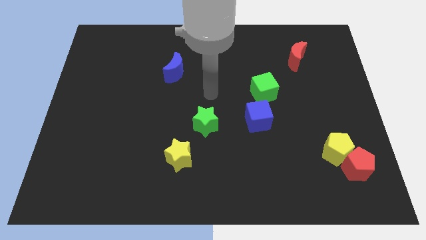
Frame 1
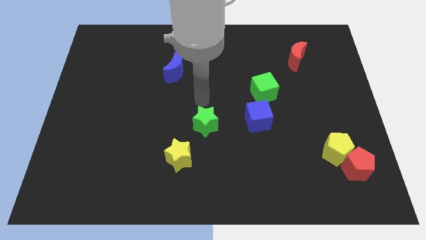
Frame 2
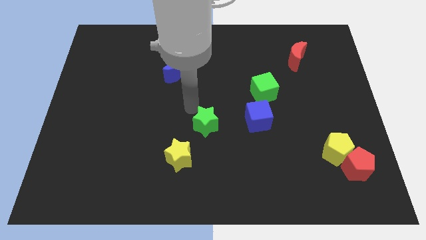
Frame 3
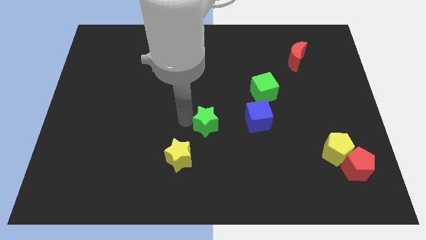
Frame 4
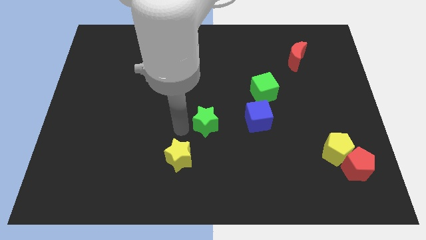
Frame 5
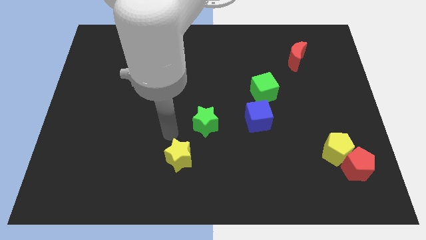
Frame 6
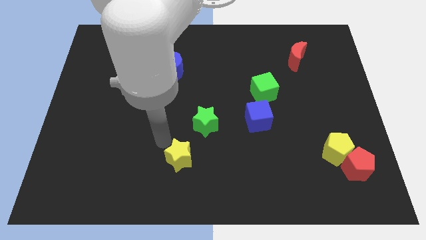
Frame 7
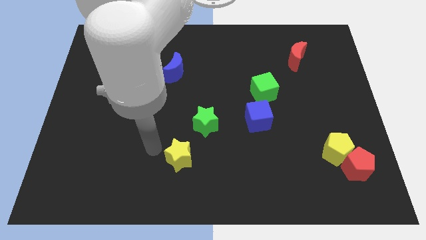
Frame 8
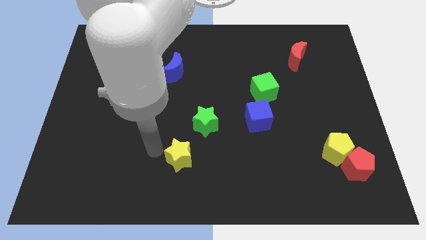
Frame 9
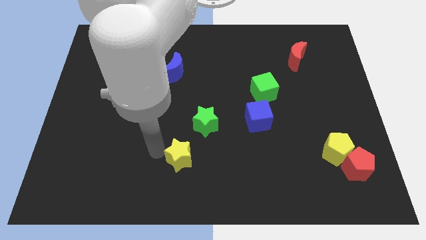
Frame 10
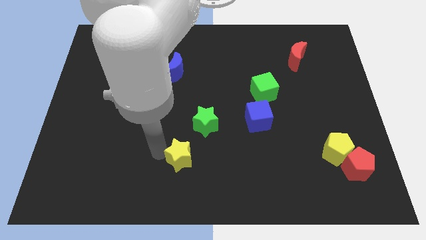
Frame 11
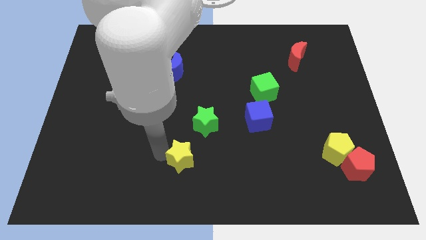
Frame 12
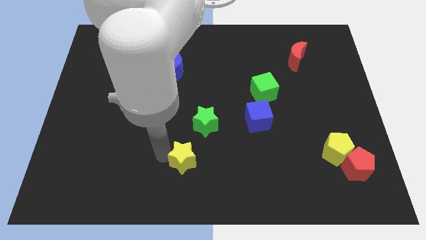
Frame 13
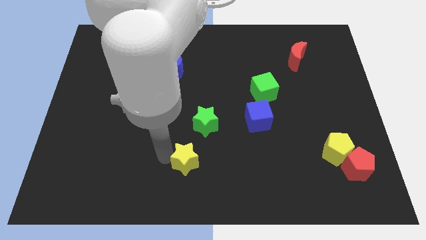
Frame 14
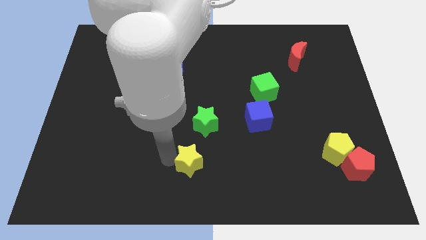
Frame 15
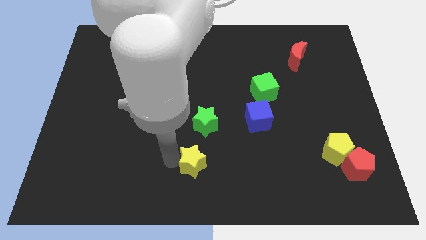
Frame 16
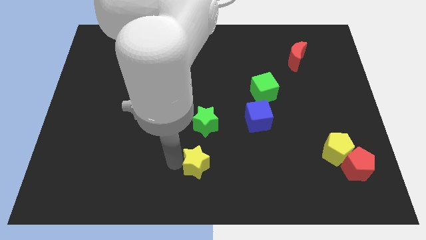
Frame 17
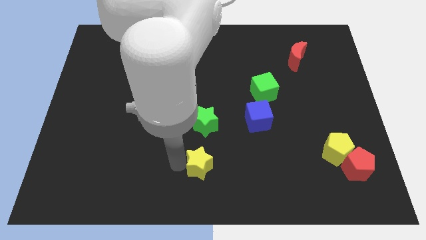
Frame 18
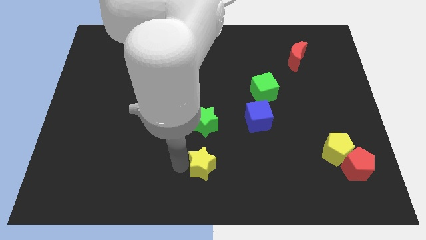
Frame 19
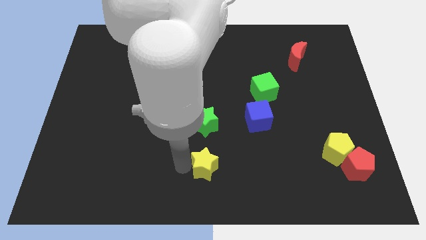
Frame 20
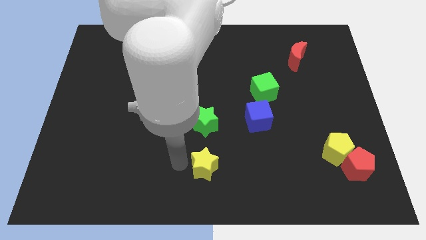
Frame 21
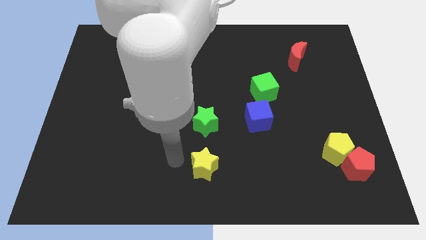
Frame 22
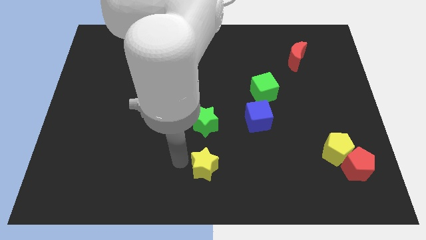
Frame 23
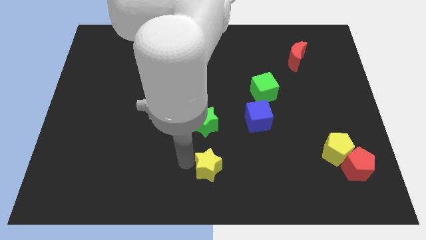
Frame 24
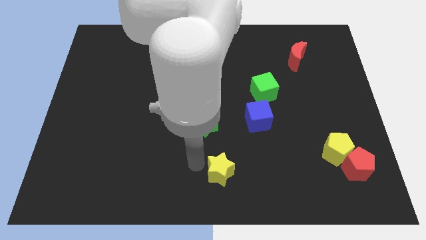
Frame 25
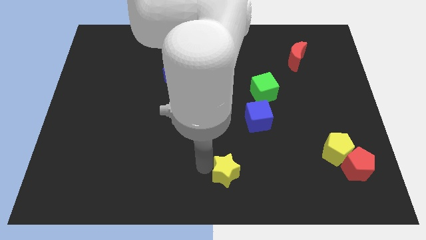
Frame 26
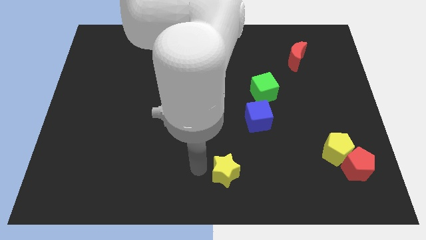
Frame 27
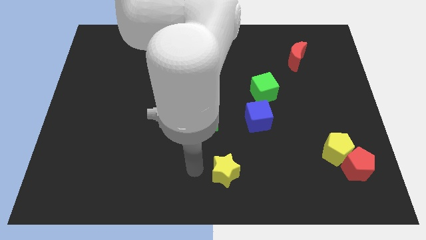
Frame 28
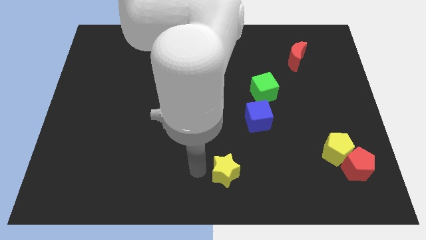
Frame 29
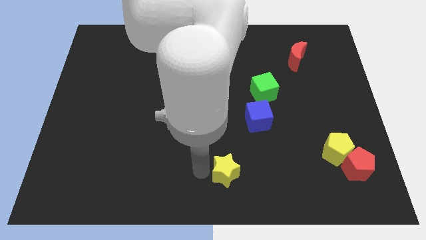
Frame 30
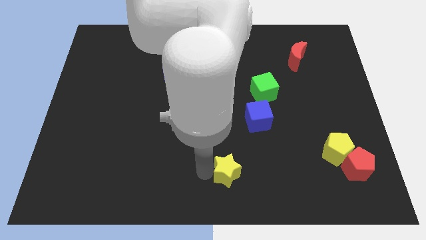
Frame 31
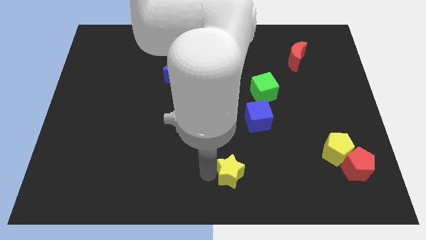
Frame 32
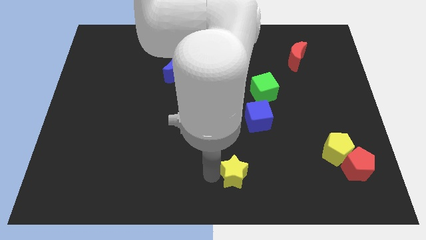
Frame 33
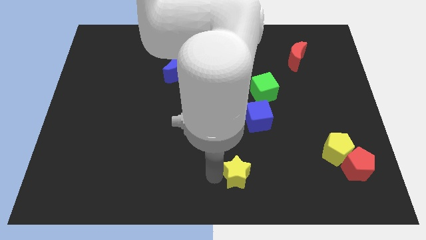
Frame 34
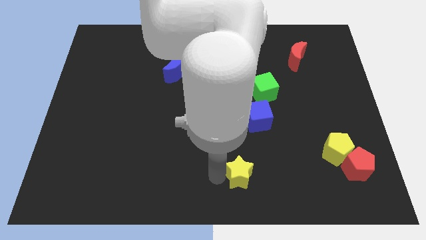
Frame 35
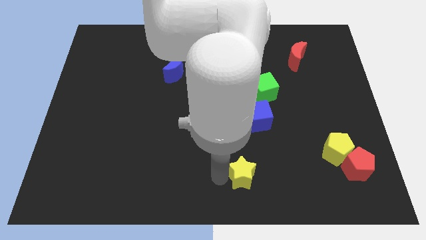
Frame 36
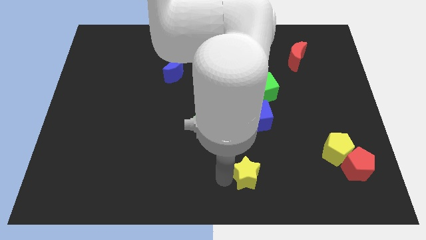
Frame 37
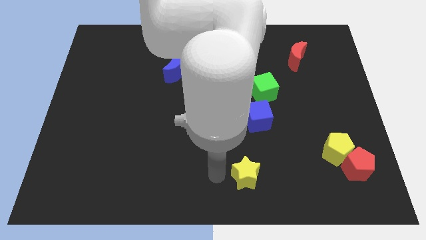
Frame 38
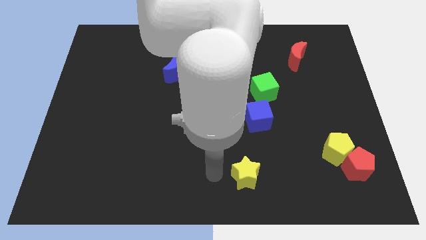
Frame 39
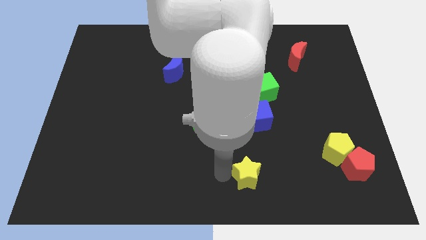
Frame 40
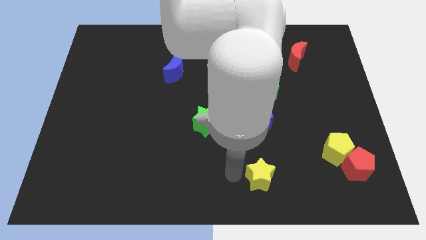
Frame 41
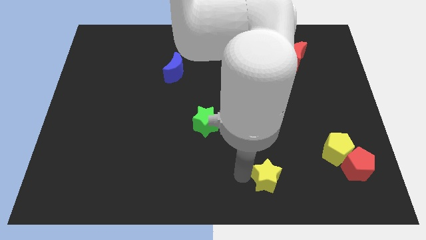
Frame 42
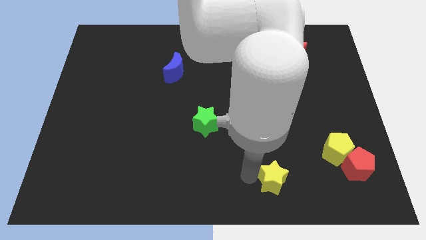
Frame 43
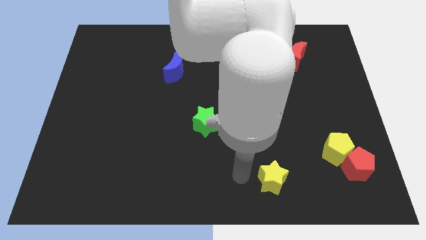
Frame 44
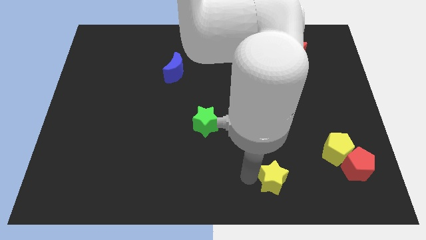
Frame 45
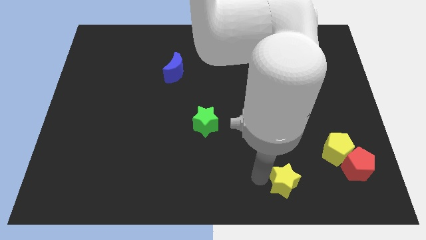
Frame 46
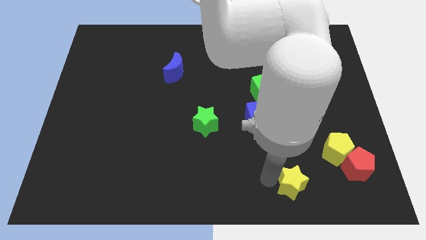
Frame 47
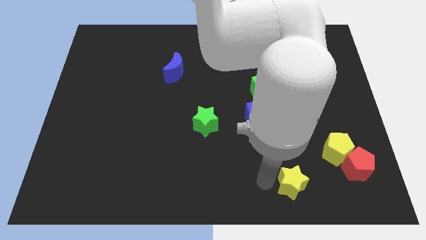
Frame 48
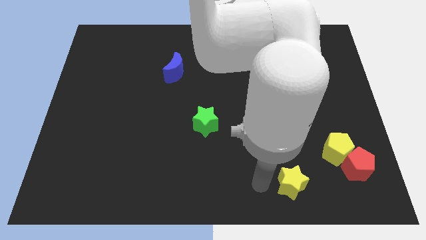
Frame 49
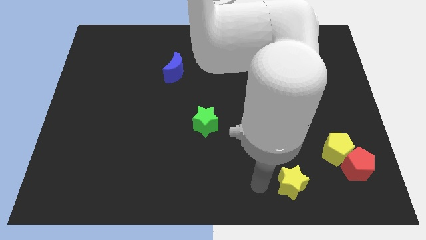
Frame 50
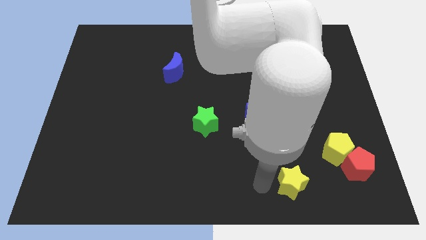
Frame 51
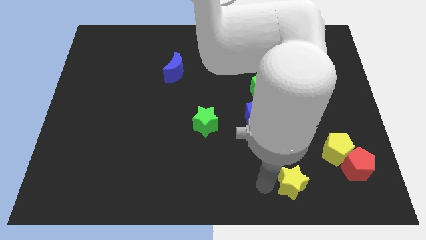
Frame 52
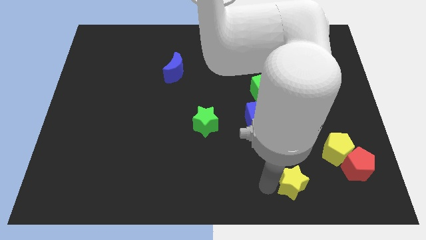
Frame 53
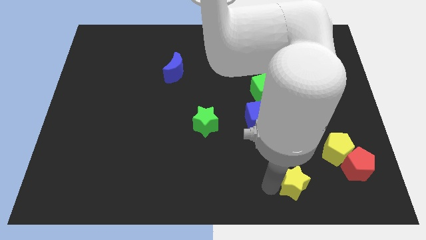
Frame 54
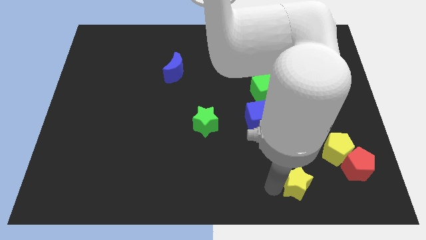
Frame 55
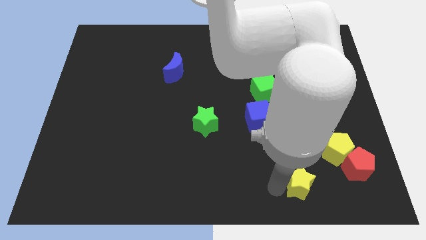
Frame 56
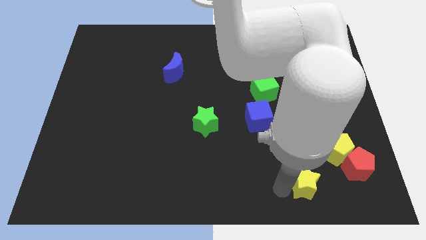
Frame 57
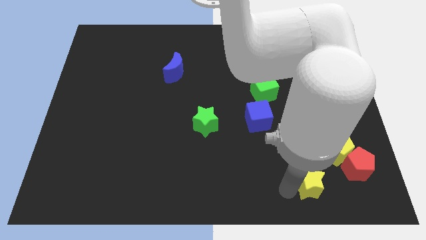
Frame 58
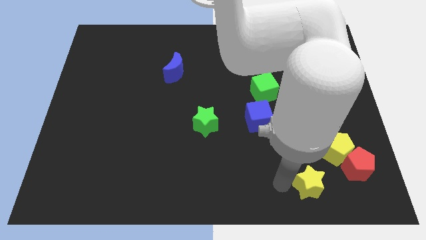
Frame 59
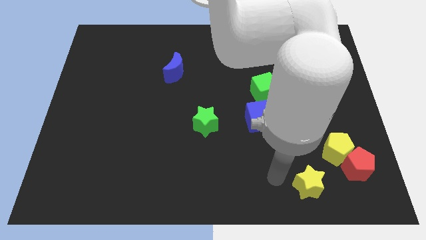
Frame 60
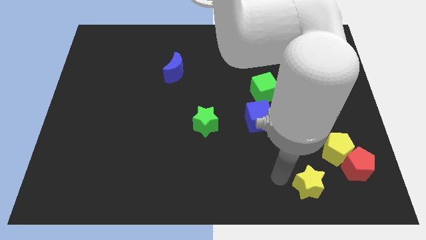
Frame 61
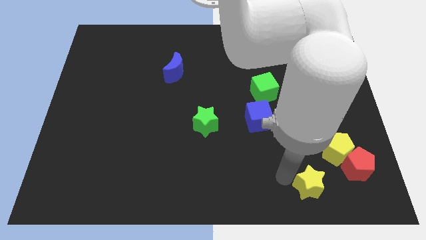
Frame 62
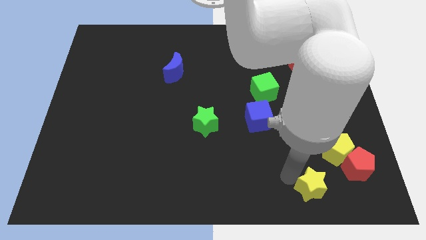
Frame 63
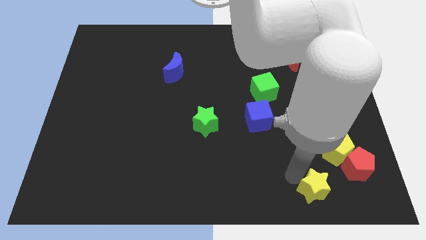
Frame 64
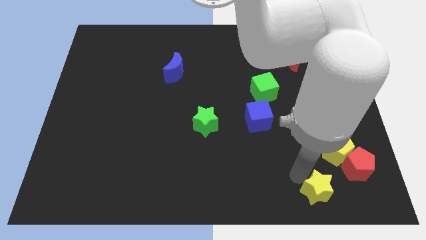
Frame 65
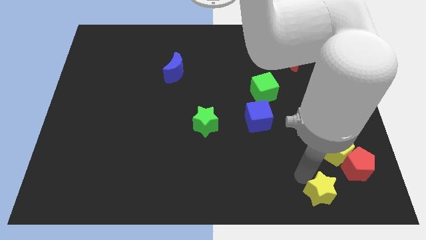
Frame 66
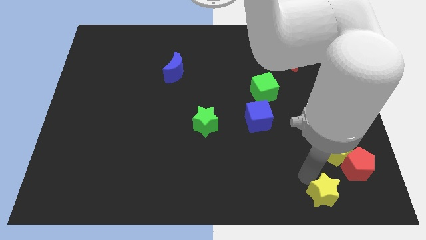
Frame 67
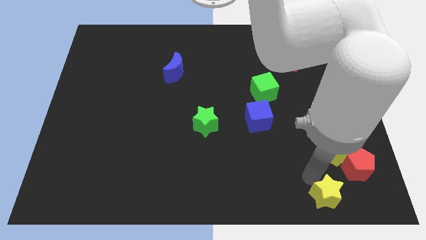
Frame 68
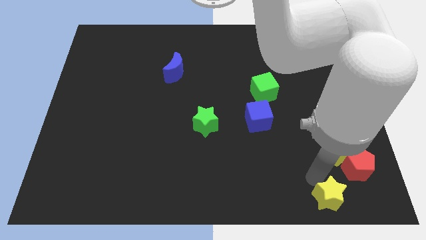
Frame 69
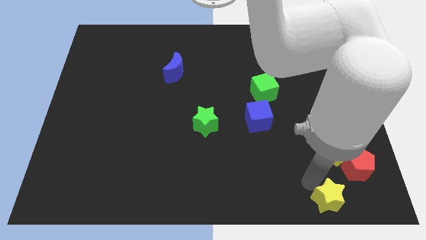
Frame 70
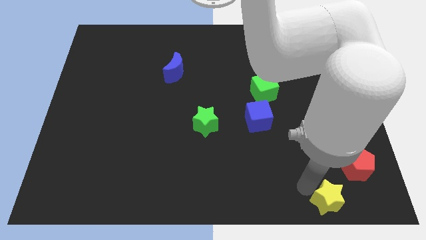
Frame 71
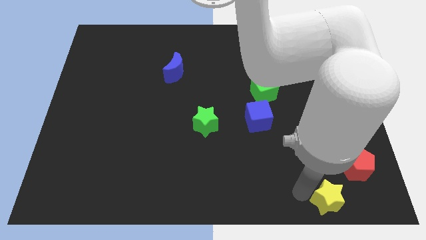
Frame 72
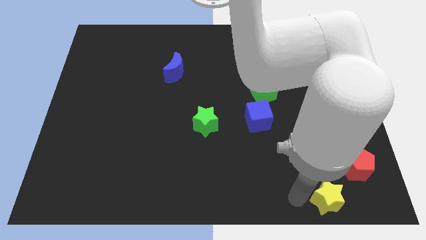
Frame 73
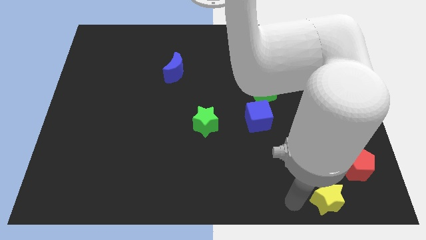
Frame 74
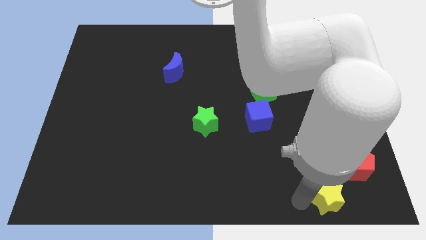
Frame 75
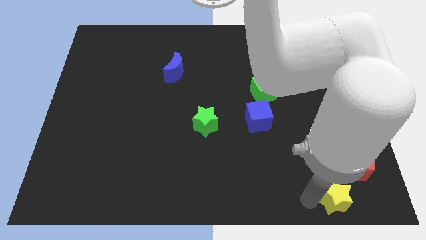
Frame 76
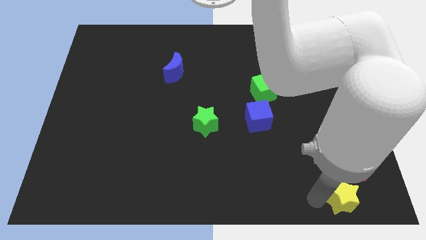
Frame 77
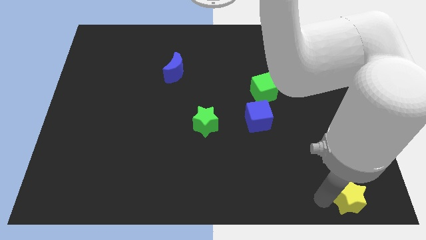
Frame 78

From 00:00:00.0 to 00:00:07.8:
put the yellow star to the lower right corner
